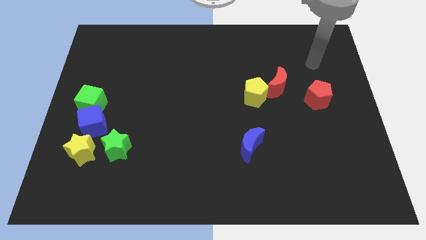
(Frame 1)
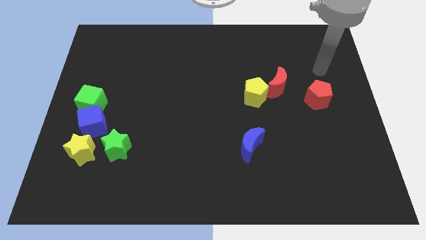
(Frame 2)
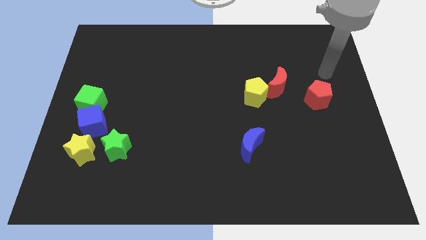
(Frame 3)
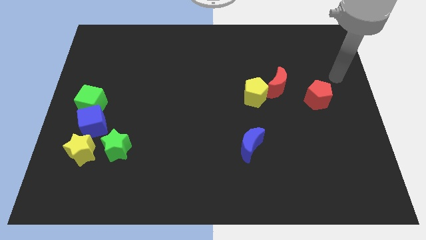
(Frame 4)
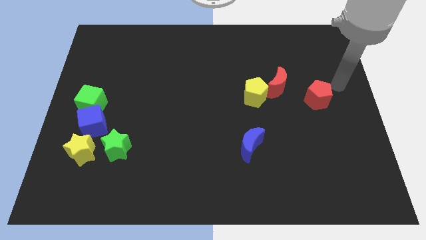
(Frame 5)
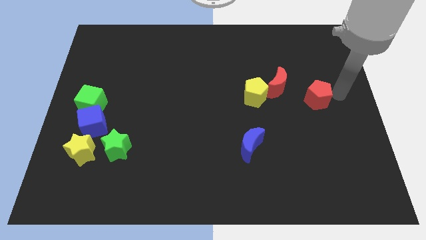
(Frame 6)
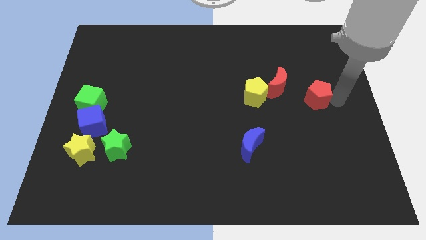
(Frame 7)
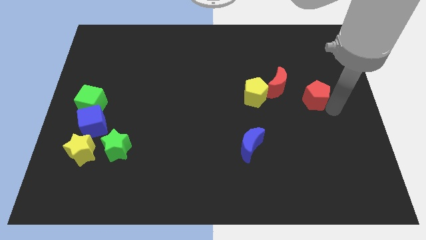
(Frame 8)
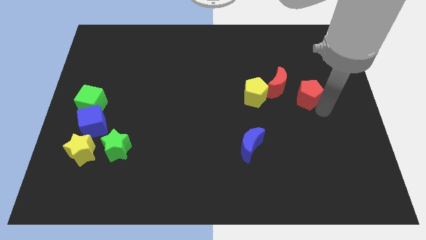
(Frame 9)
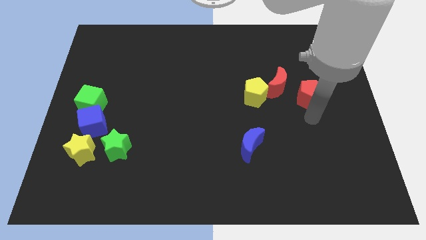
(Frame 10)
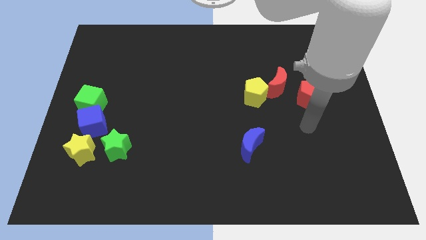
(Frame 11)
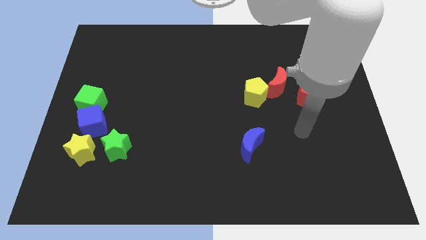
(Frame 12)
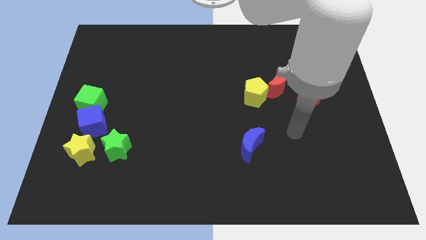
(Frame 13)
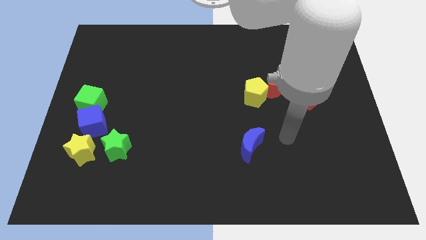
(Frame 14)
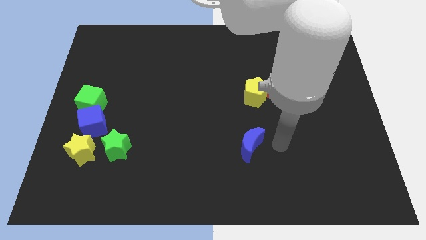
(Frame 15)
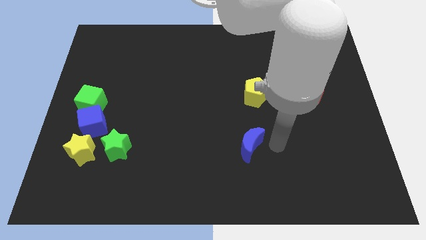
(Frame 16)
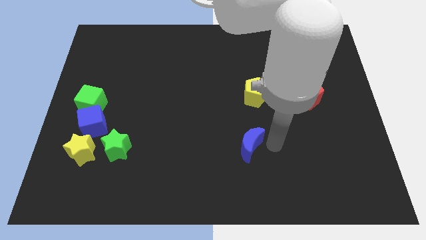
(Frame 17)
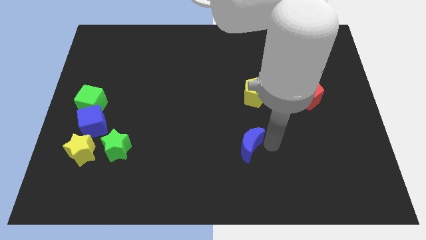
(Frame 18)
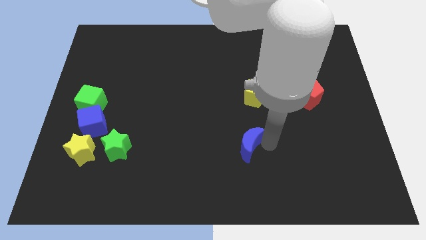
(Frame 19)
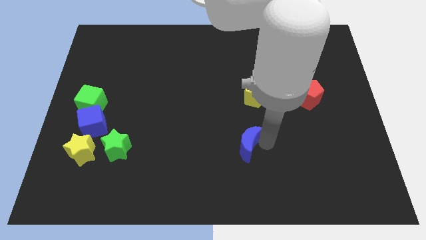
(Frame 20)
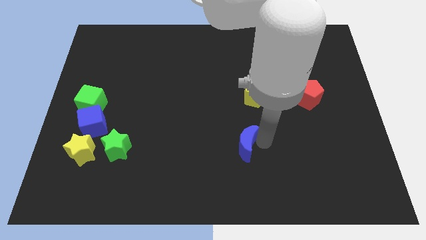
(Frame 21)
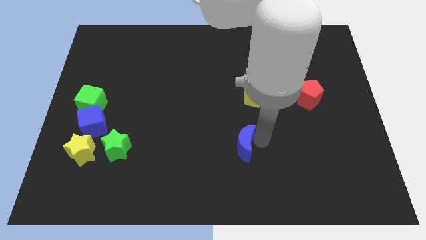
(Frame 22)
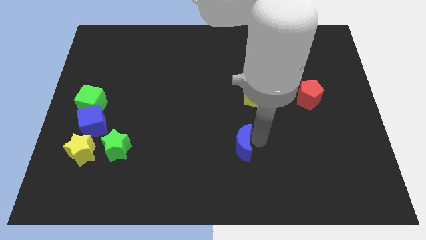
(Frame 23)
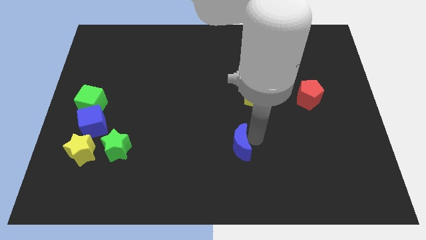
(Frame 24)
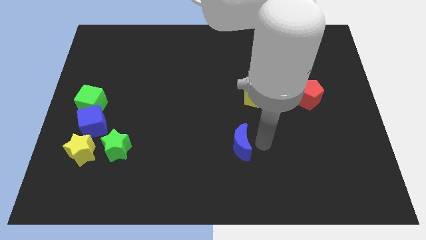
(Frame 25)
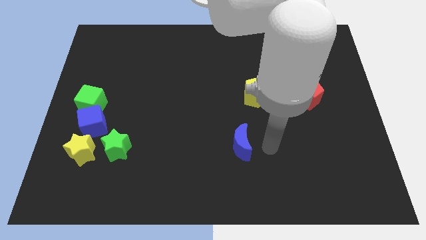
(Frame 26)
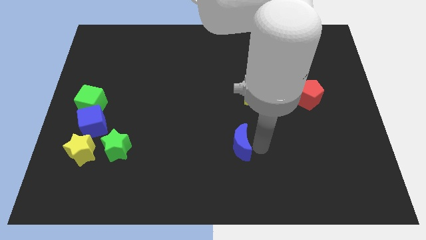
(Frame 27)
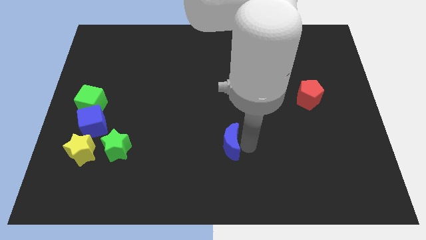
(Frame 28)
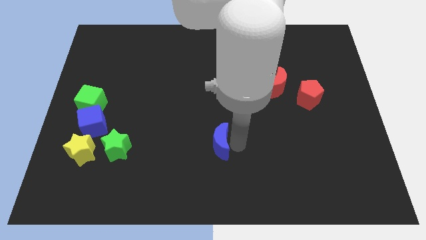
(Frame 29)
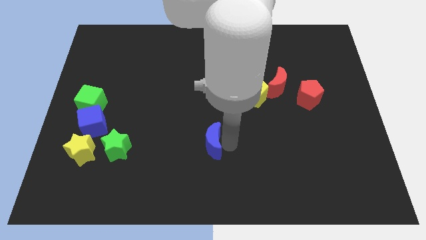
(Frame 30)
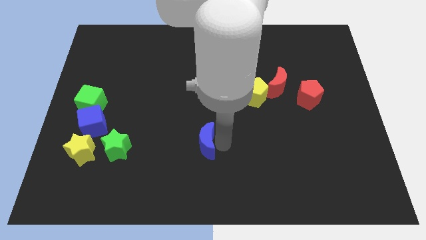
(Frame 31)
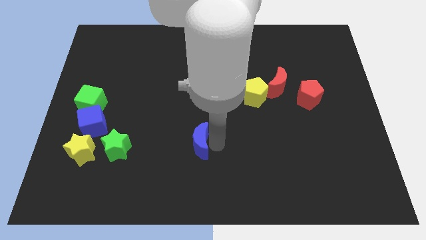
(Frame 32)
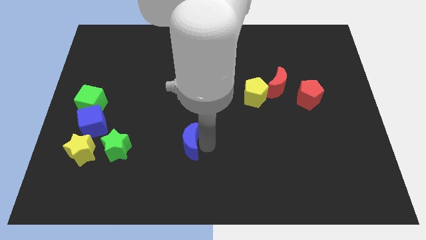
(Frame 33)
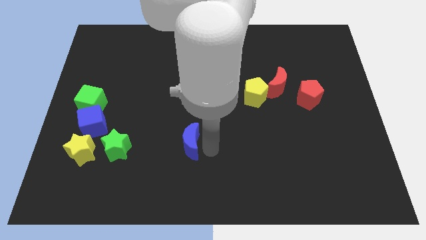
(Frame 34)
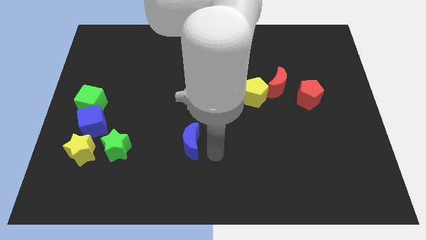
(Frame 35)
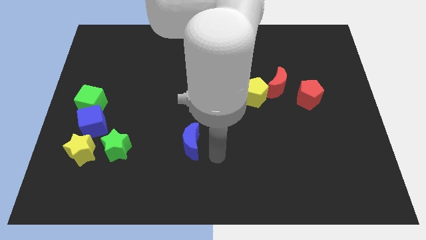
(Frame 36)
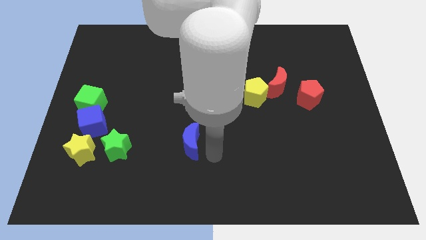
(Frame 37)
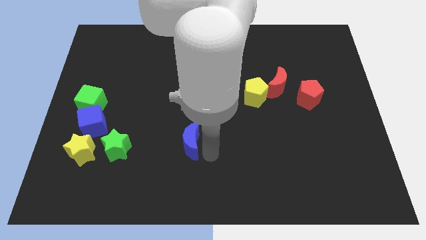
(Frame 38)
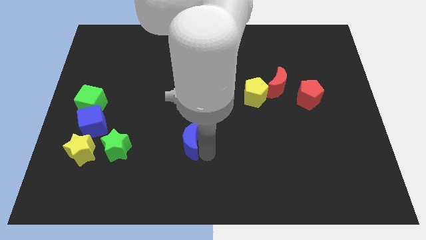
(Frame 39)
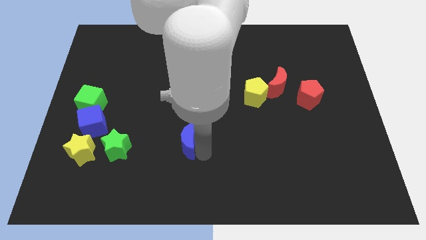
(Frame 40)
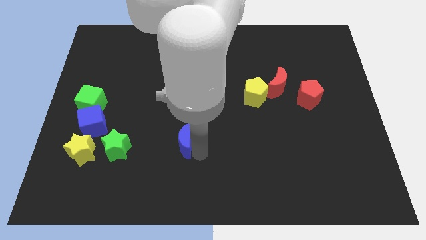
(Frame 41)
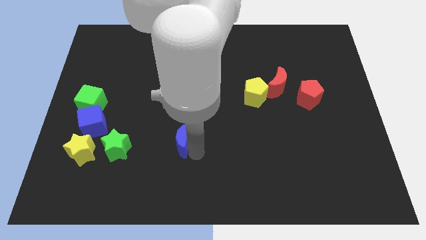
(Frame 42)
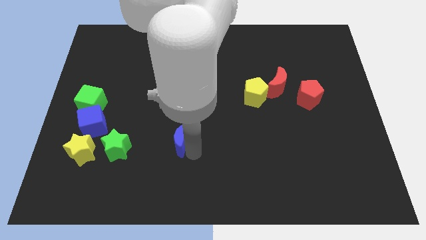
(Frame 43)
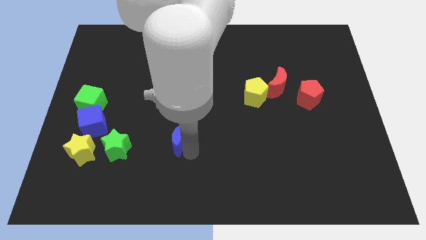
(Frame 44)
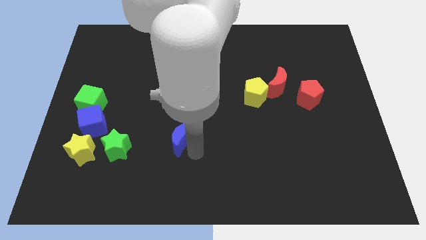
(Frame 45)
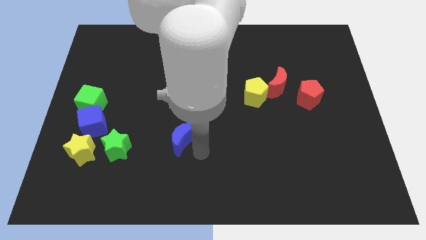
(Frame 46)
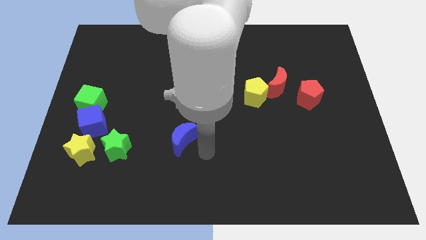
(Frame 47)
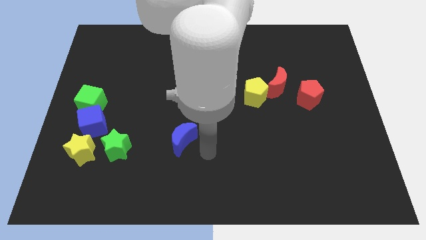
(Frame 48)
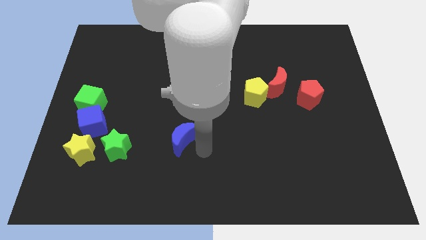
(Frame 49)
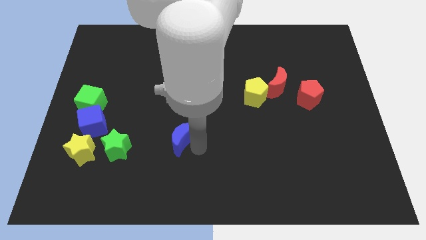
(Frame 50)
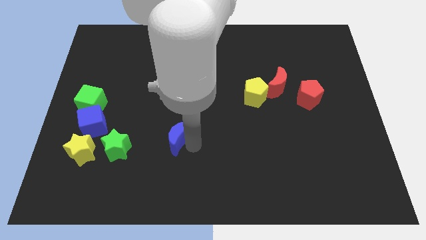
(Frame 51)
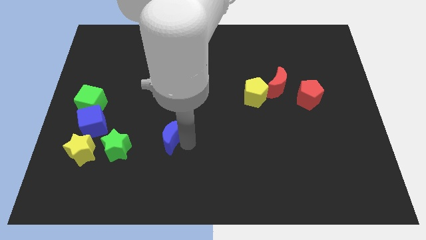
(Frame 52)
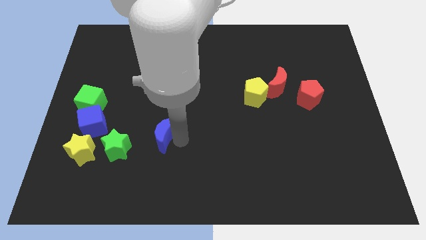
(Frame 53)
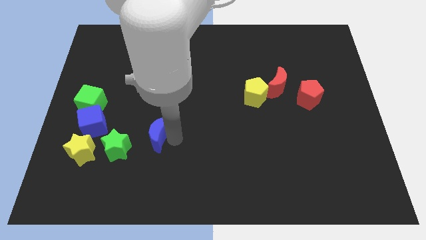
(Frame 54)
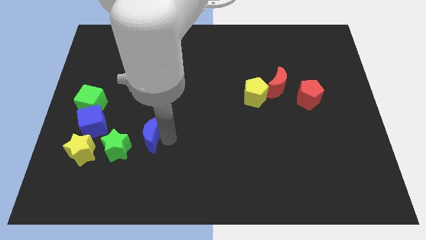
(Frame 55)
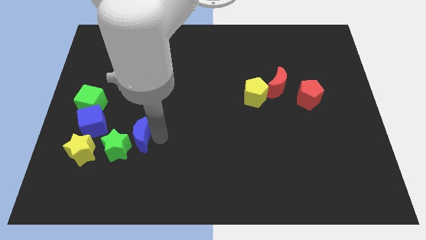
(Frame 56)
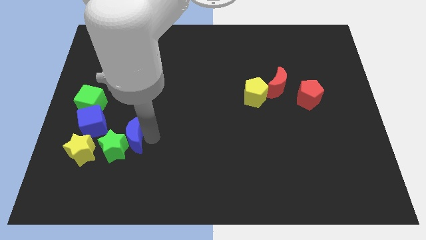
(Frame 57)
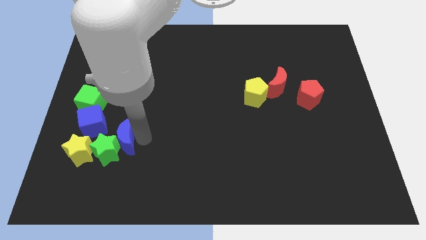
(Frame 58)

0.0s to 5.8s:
slide the blue moon to the top right of the yellow star
